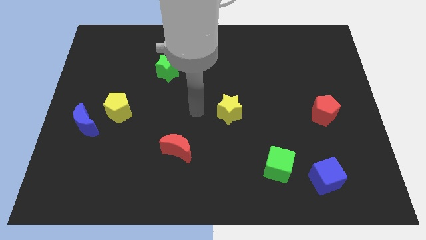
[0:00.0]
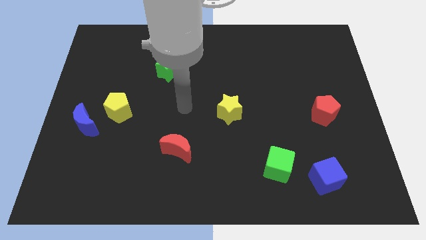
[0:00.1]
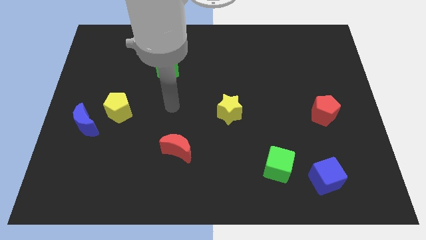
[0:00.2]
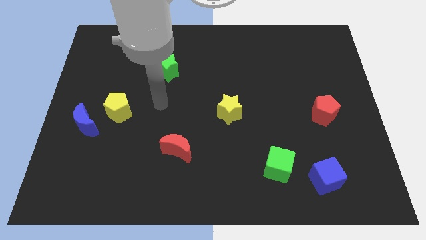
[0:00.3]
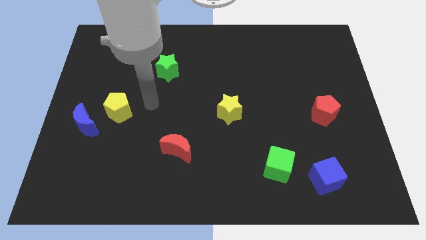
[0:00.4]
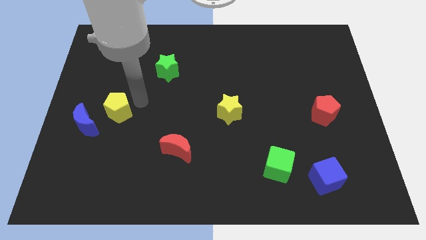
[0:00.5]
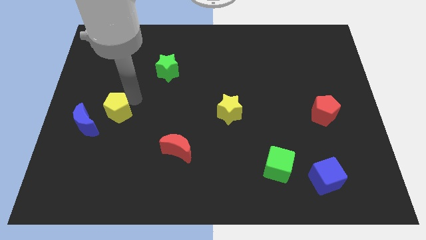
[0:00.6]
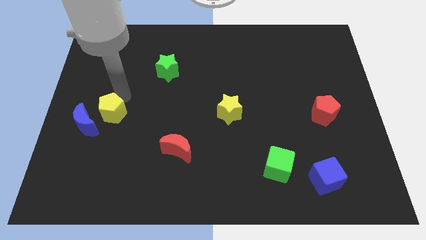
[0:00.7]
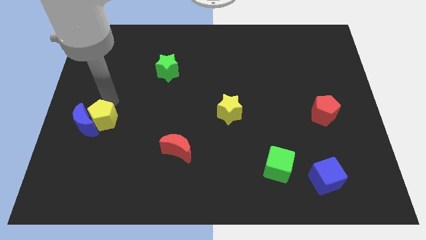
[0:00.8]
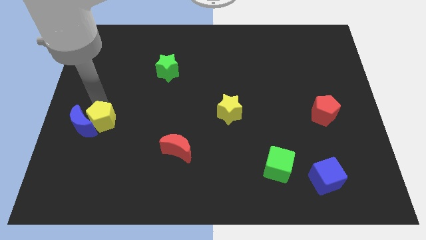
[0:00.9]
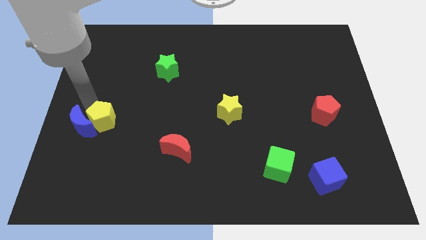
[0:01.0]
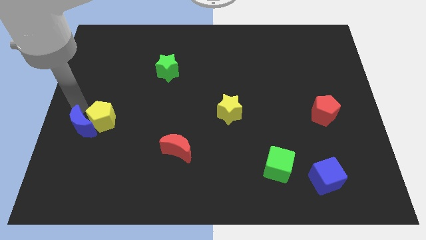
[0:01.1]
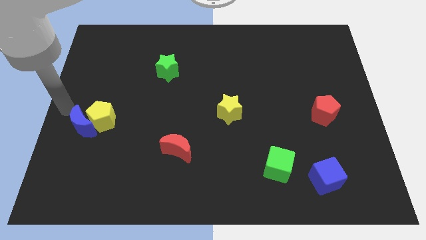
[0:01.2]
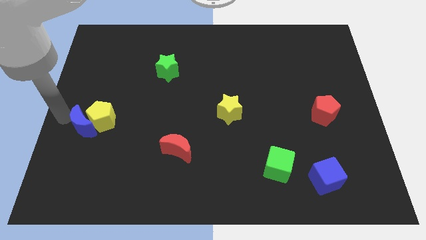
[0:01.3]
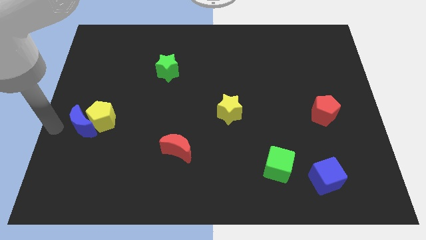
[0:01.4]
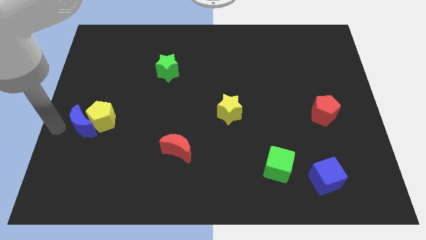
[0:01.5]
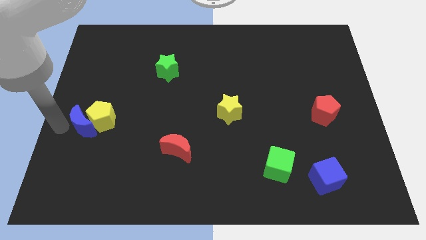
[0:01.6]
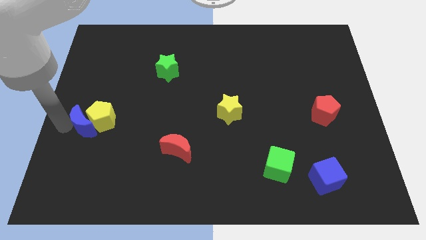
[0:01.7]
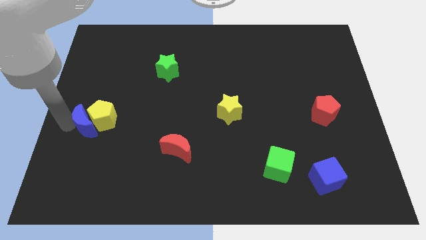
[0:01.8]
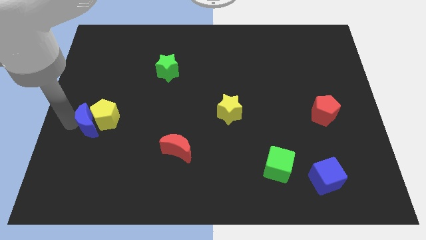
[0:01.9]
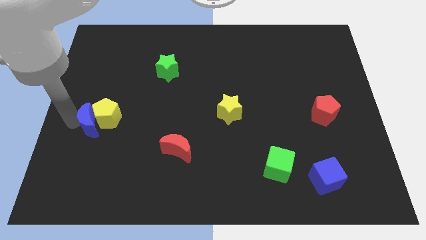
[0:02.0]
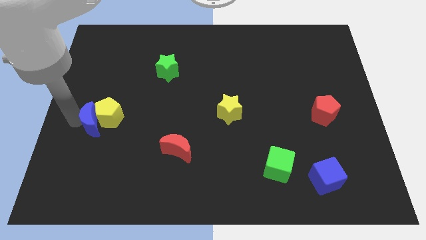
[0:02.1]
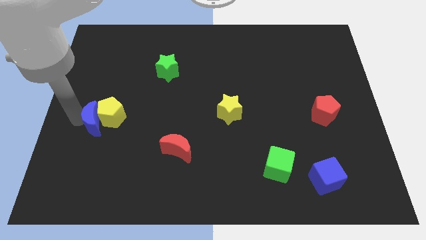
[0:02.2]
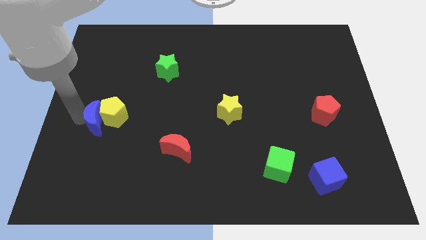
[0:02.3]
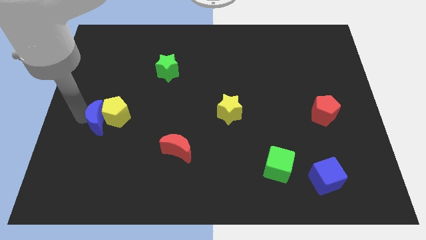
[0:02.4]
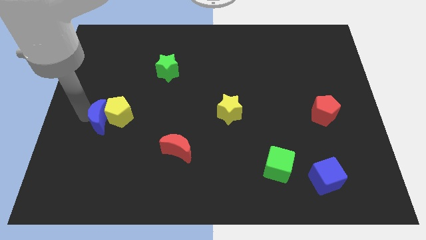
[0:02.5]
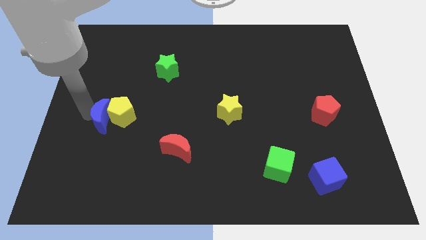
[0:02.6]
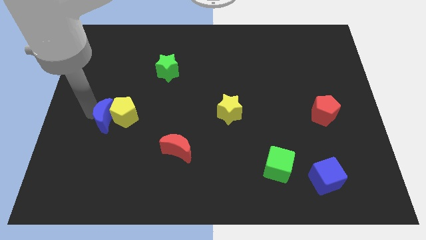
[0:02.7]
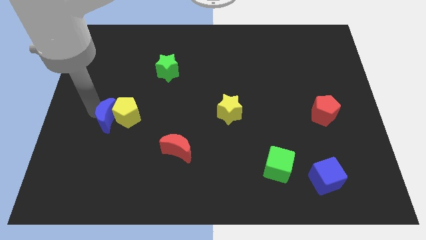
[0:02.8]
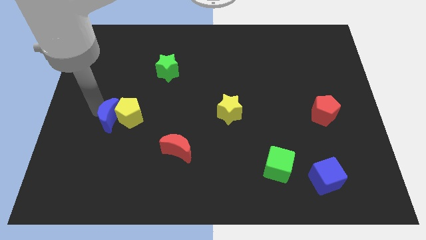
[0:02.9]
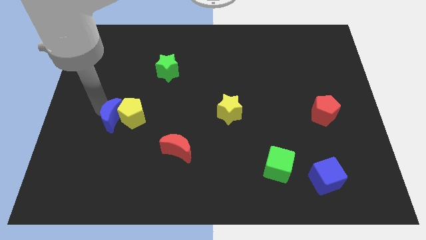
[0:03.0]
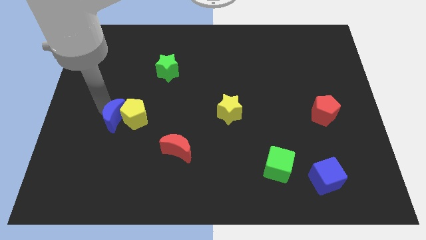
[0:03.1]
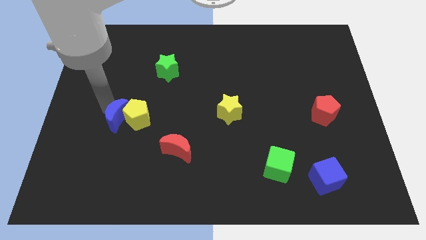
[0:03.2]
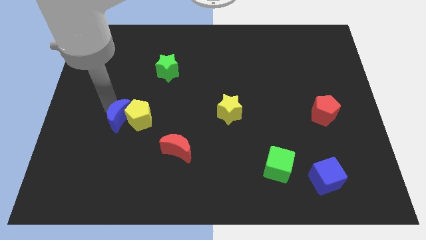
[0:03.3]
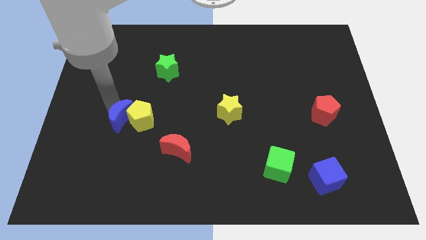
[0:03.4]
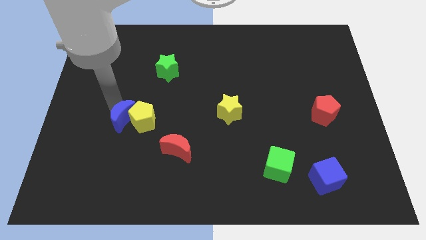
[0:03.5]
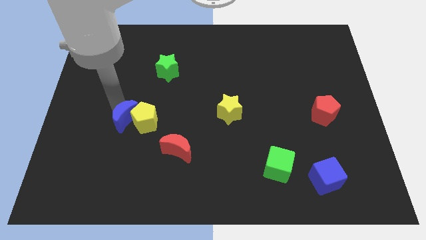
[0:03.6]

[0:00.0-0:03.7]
move the blue moon upwards and right a little

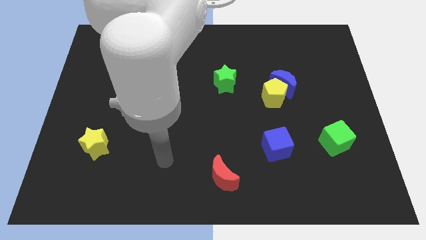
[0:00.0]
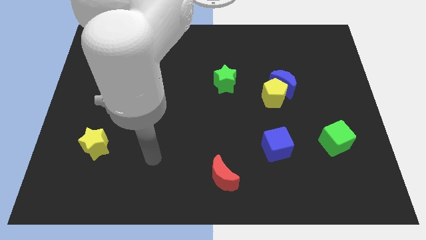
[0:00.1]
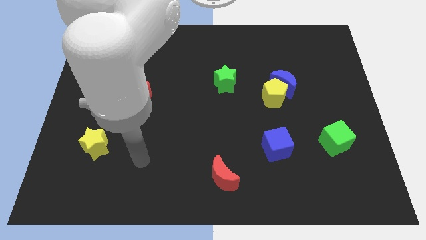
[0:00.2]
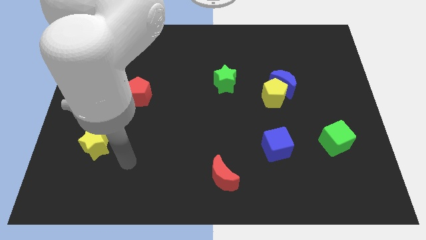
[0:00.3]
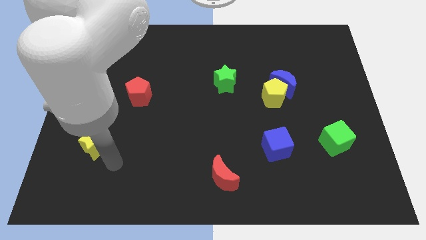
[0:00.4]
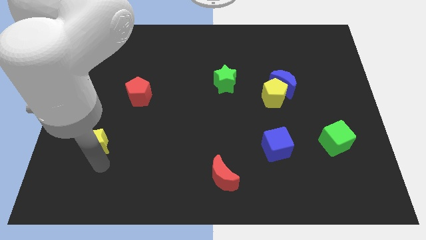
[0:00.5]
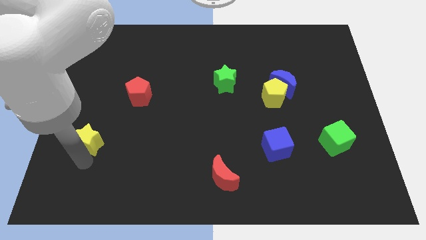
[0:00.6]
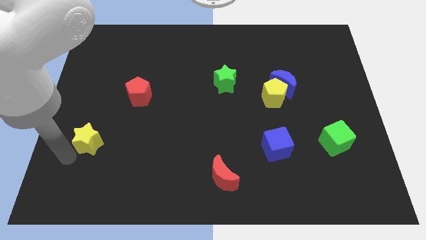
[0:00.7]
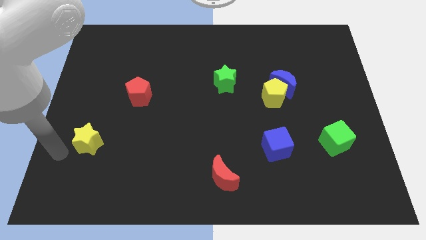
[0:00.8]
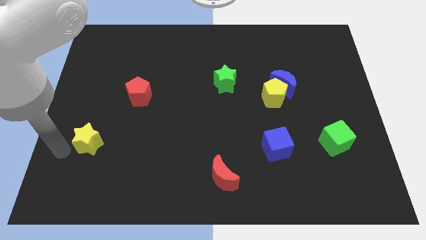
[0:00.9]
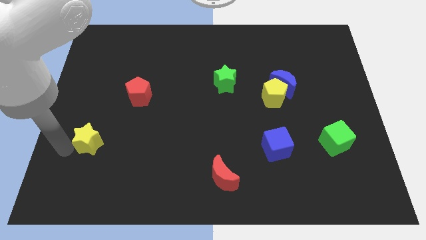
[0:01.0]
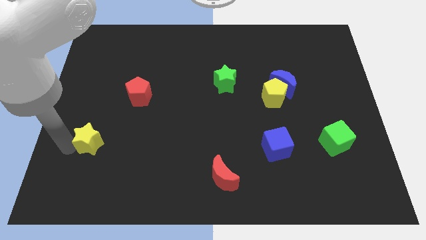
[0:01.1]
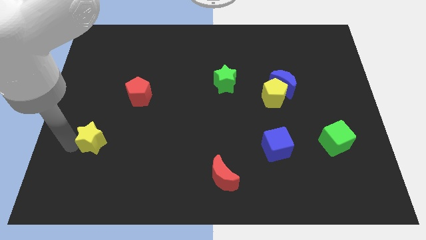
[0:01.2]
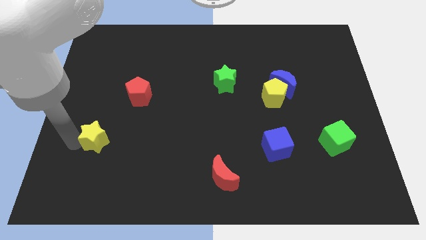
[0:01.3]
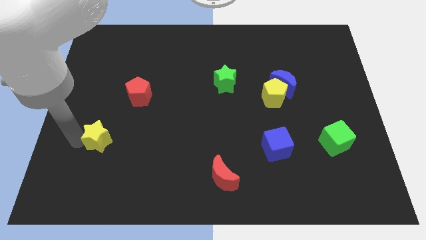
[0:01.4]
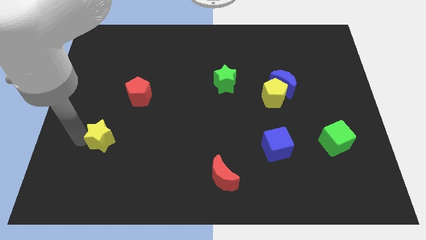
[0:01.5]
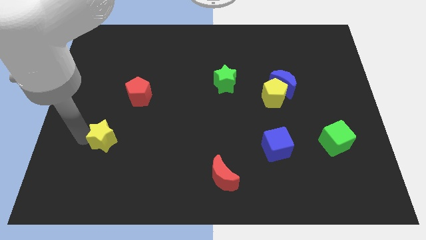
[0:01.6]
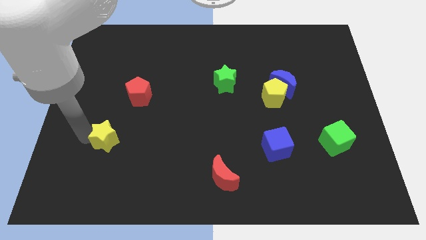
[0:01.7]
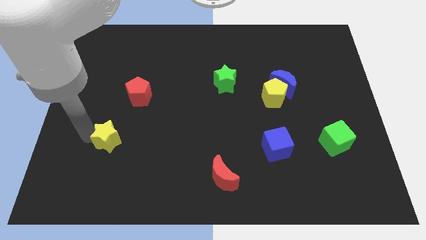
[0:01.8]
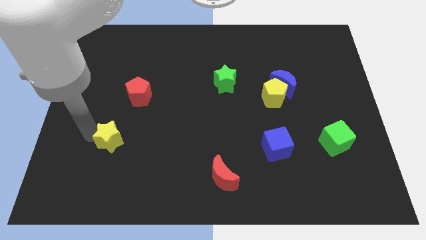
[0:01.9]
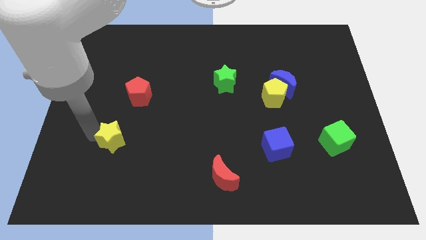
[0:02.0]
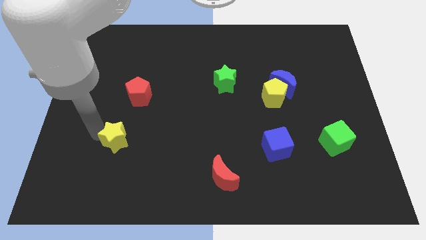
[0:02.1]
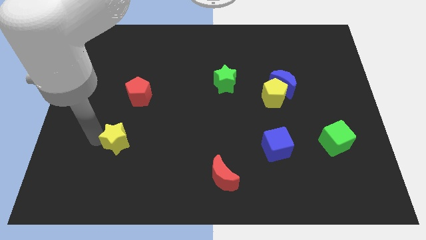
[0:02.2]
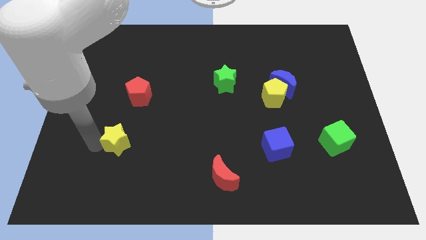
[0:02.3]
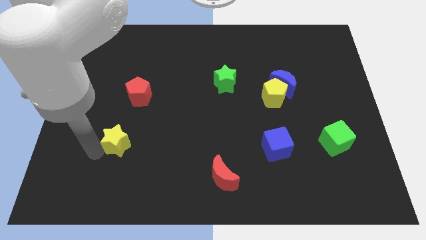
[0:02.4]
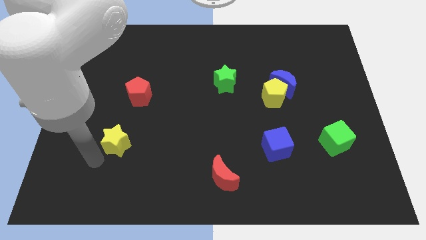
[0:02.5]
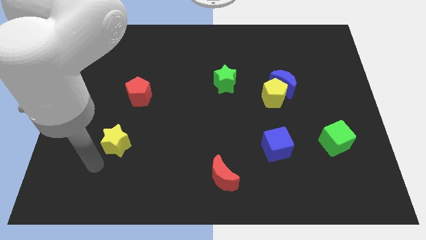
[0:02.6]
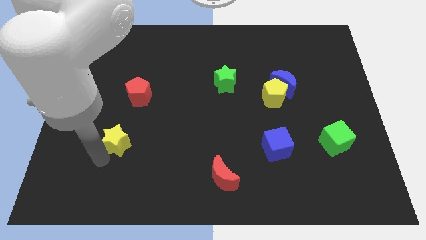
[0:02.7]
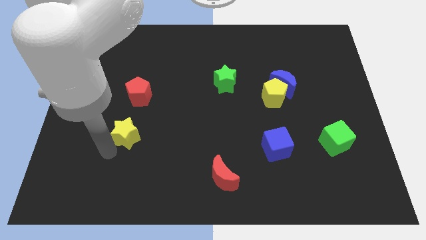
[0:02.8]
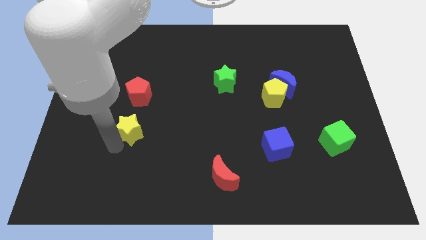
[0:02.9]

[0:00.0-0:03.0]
slide the yellow star diagonally upwards and to the right somewhat

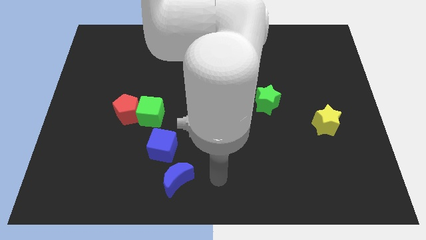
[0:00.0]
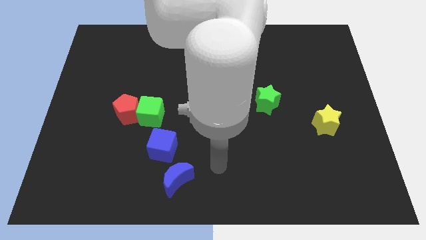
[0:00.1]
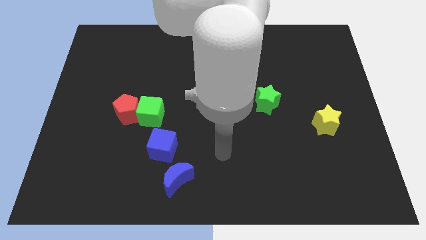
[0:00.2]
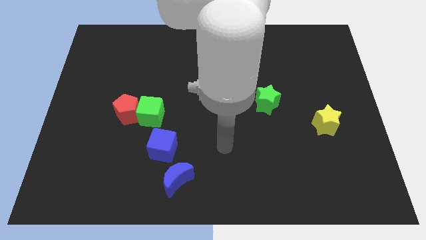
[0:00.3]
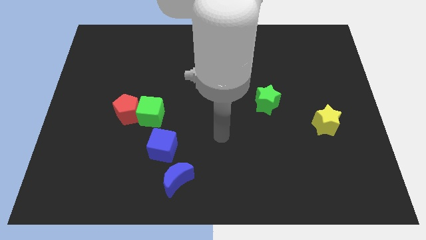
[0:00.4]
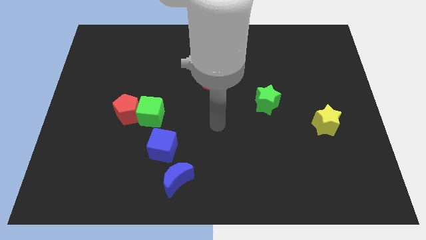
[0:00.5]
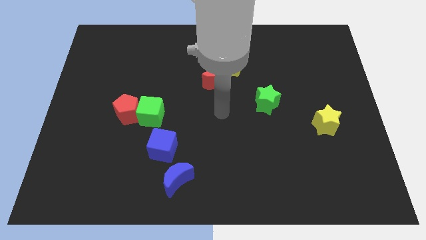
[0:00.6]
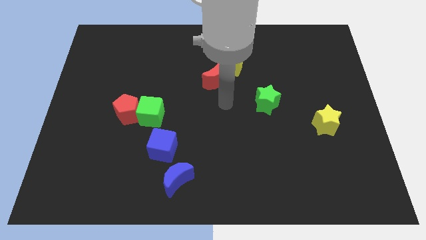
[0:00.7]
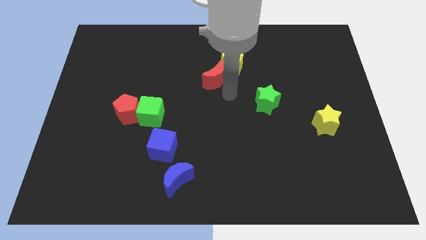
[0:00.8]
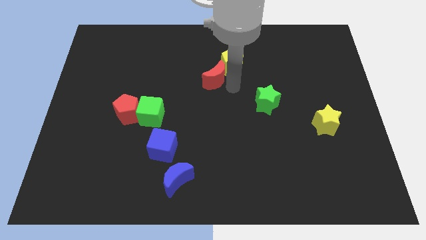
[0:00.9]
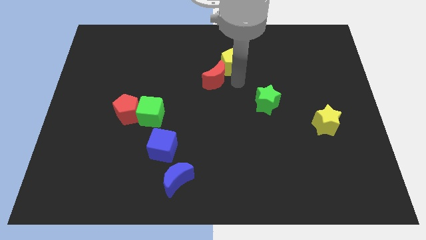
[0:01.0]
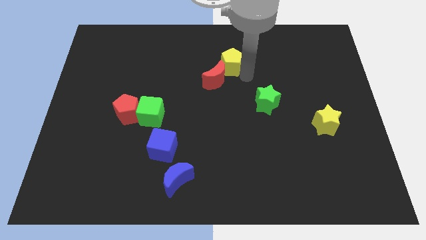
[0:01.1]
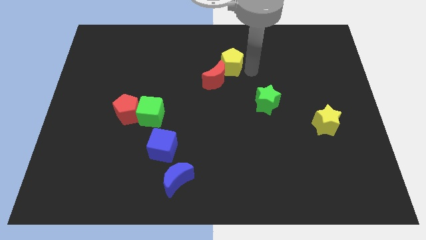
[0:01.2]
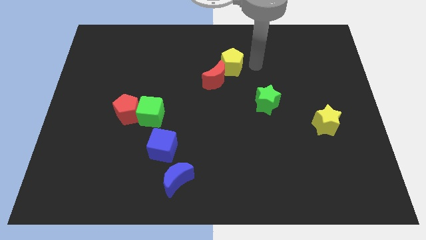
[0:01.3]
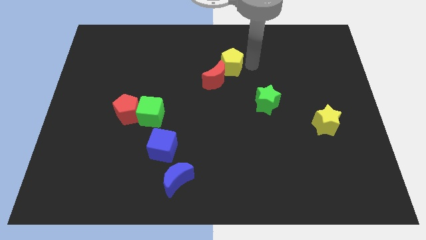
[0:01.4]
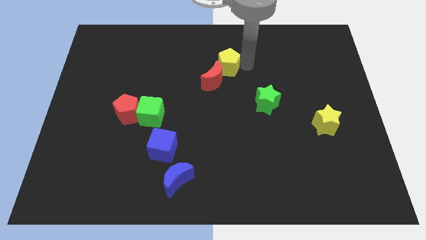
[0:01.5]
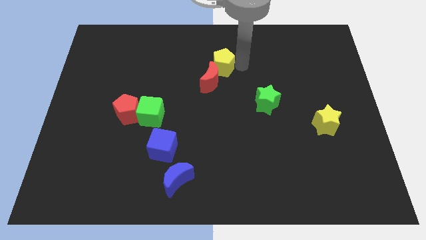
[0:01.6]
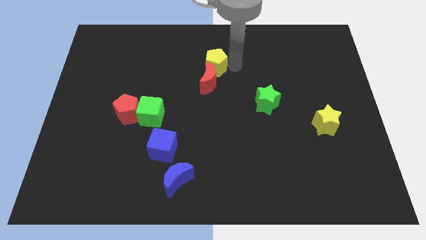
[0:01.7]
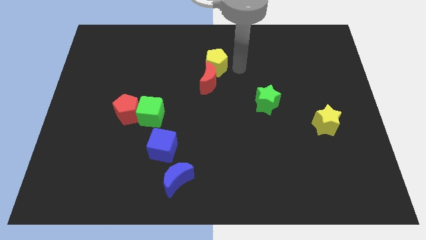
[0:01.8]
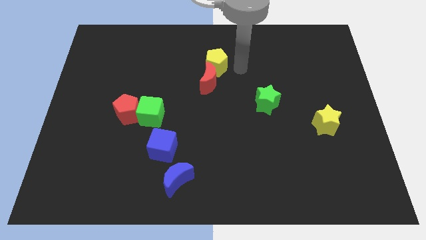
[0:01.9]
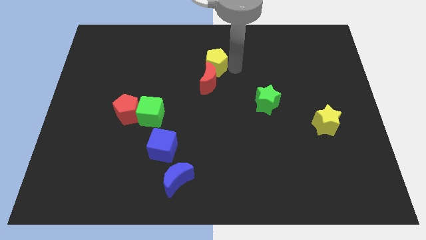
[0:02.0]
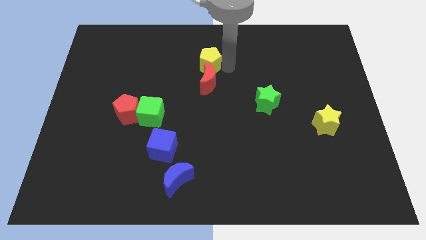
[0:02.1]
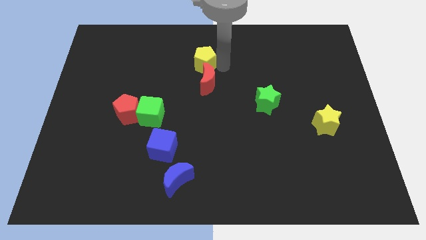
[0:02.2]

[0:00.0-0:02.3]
slide the yellow pentagon a bit to the left
